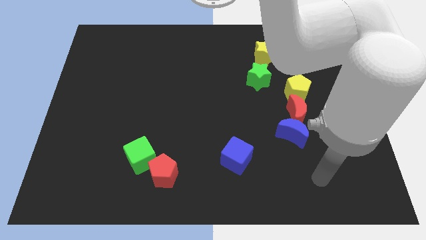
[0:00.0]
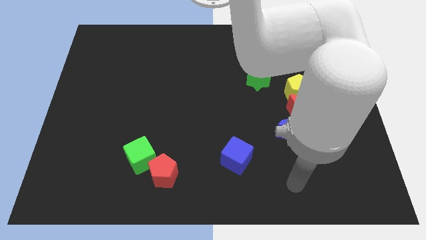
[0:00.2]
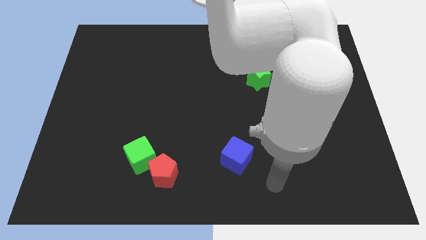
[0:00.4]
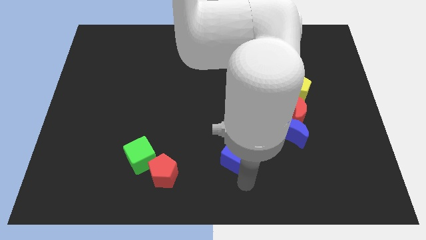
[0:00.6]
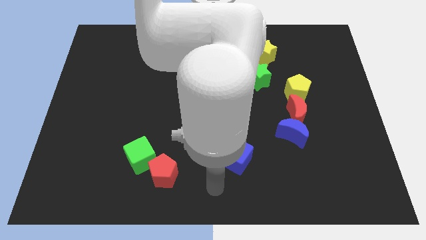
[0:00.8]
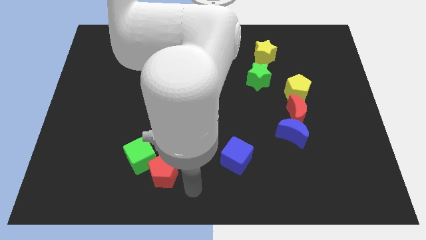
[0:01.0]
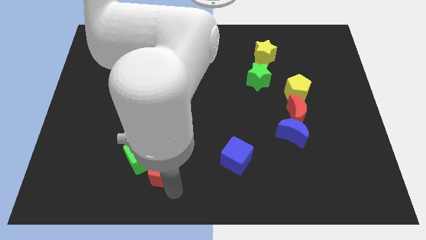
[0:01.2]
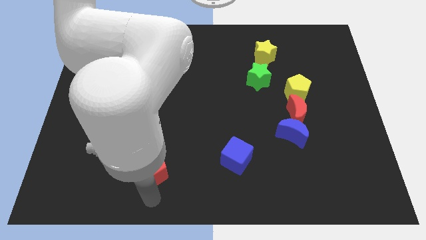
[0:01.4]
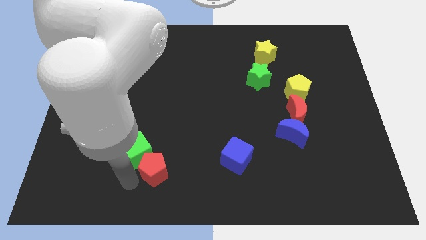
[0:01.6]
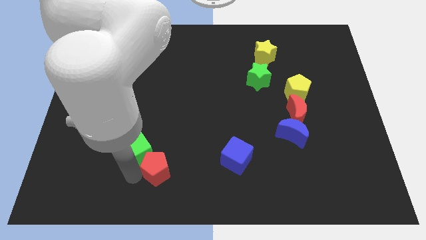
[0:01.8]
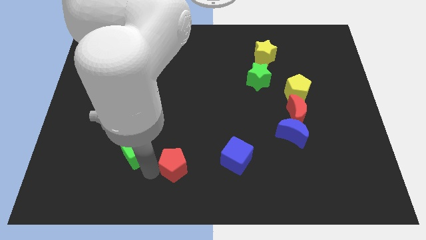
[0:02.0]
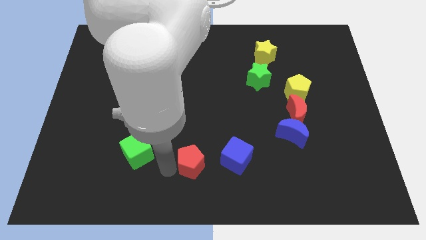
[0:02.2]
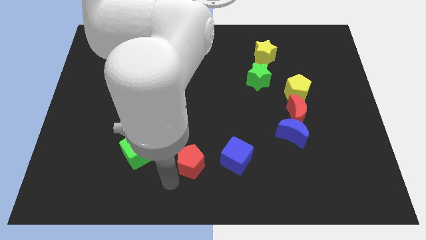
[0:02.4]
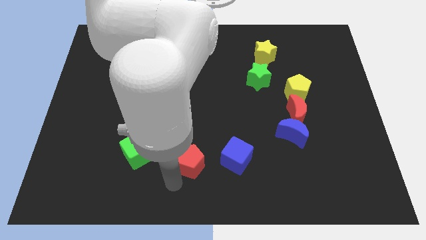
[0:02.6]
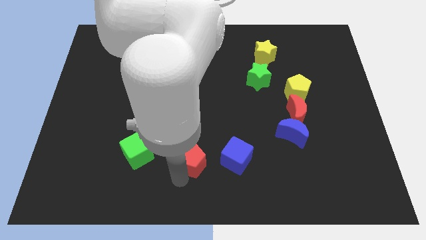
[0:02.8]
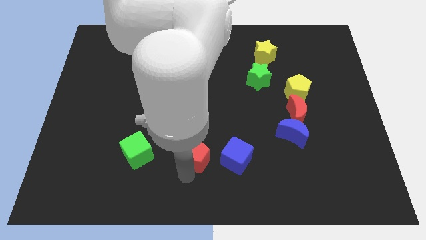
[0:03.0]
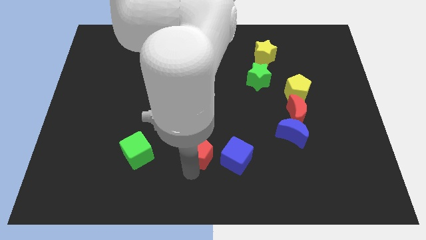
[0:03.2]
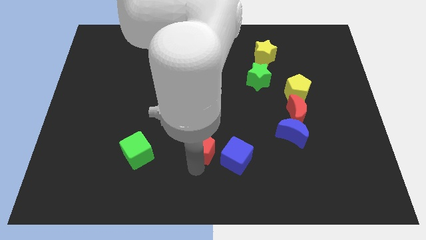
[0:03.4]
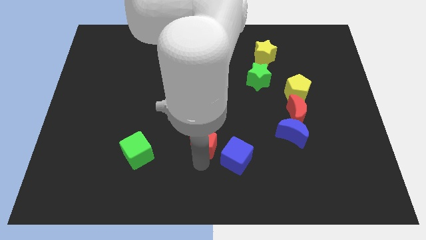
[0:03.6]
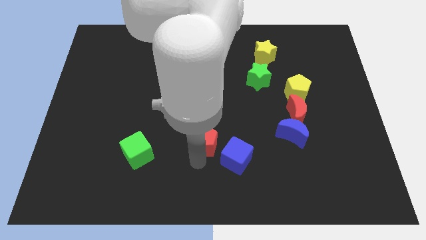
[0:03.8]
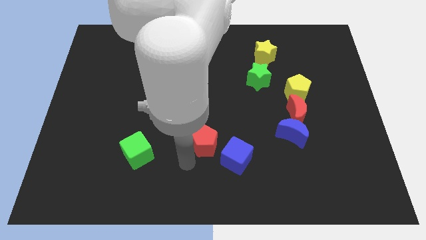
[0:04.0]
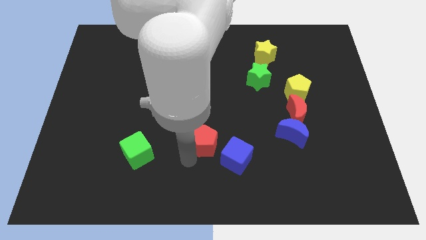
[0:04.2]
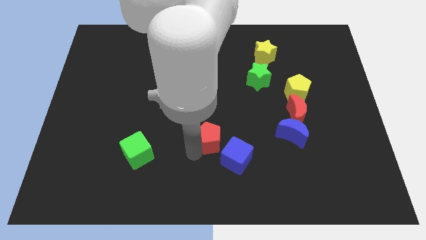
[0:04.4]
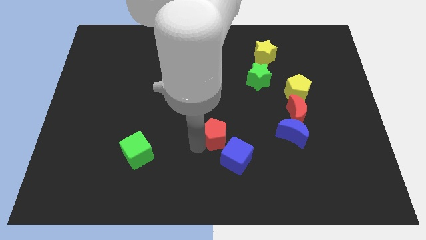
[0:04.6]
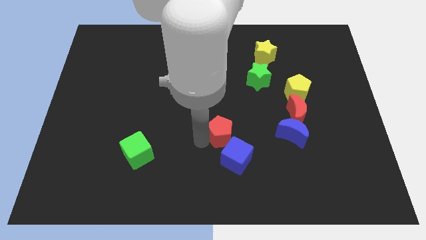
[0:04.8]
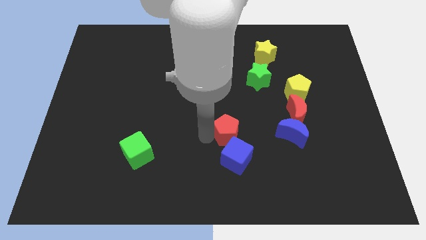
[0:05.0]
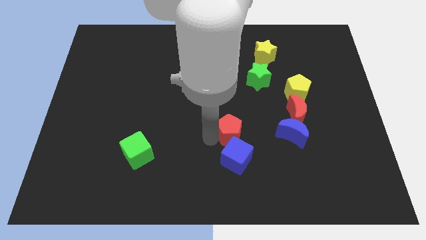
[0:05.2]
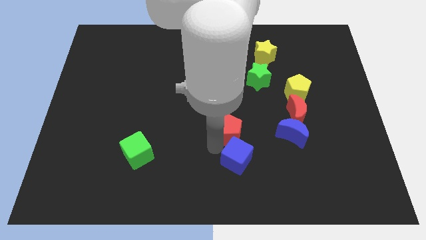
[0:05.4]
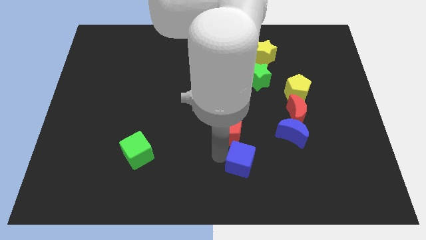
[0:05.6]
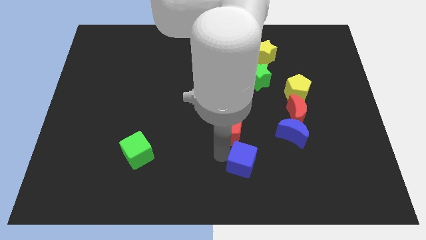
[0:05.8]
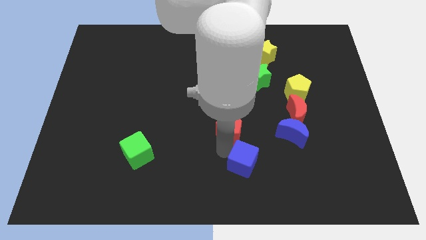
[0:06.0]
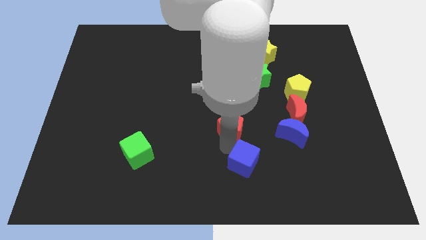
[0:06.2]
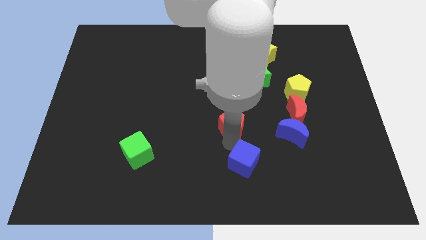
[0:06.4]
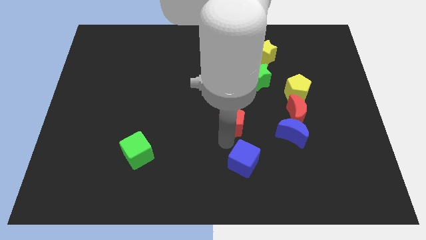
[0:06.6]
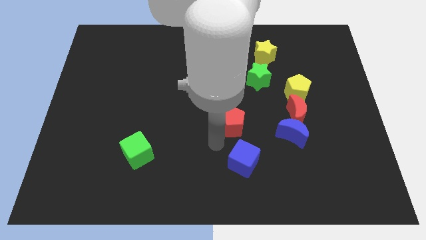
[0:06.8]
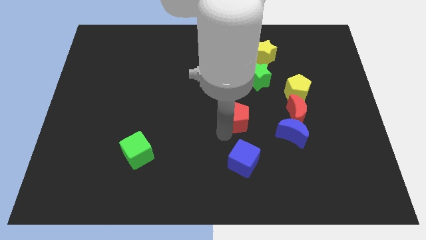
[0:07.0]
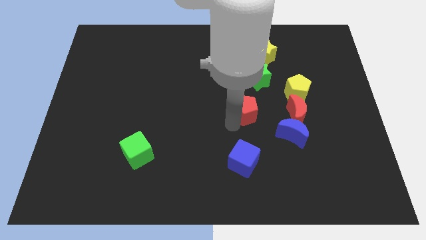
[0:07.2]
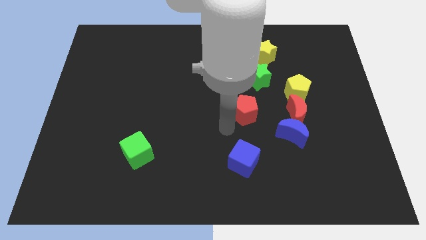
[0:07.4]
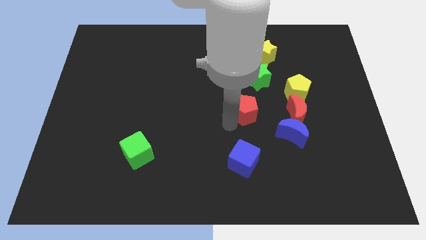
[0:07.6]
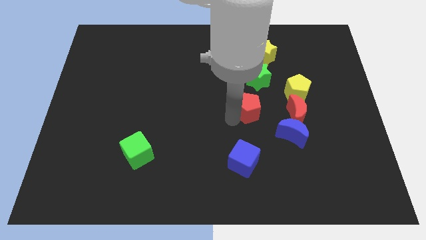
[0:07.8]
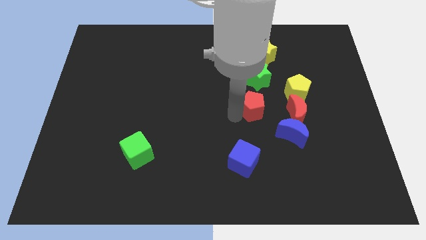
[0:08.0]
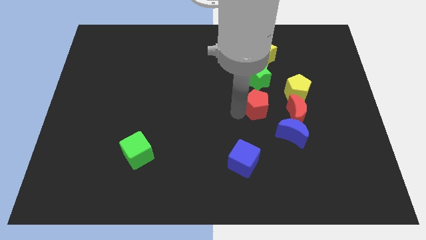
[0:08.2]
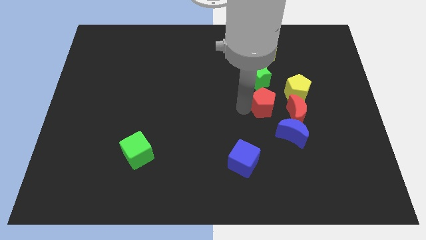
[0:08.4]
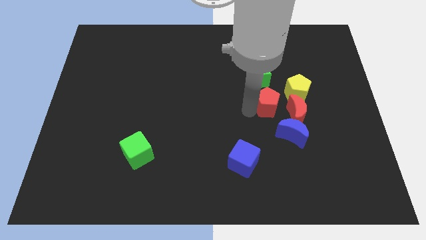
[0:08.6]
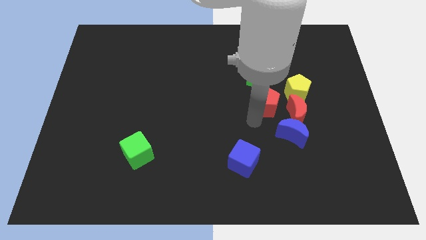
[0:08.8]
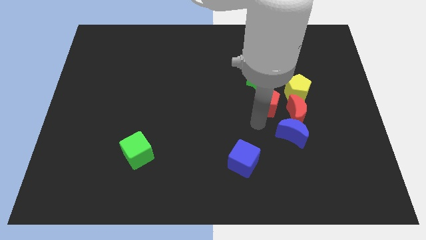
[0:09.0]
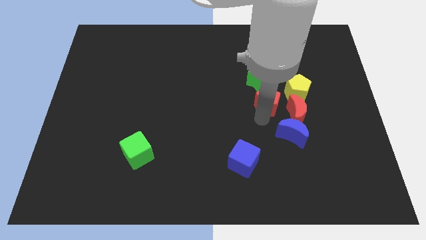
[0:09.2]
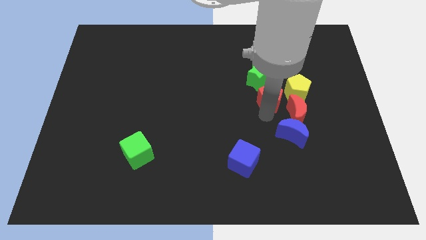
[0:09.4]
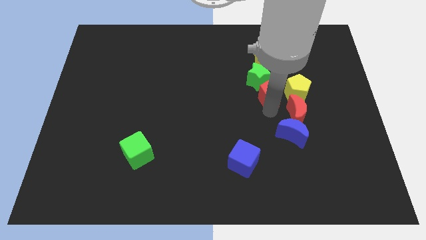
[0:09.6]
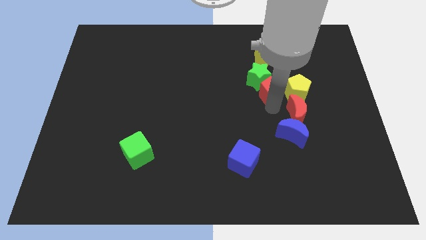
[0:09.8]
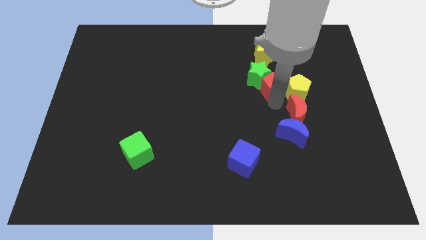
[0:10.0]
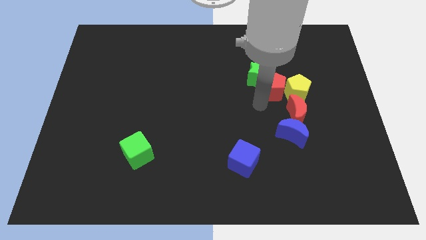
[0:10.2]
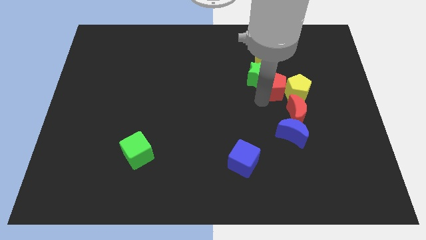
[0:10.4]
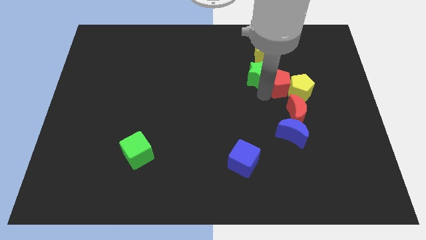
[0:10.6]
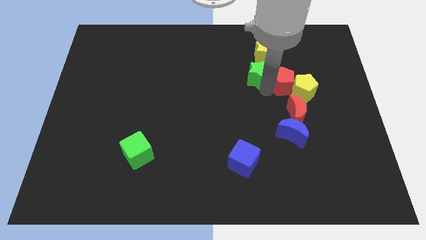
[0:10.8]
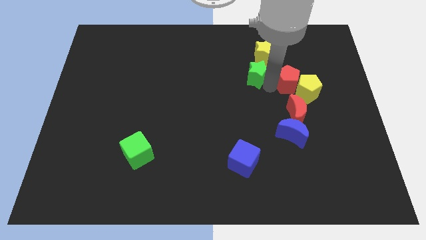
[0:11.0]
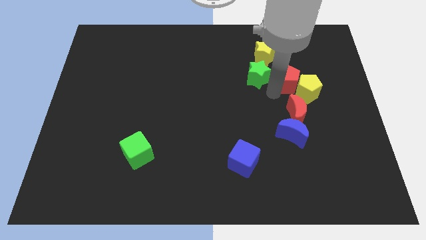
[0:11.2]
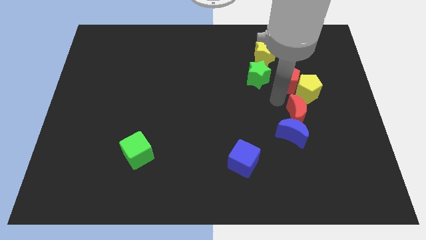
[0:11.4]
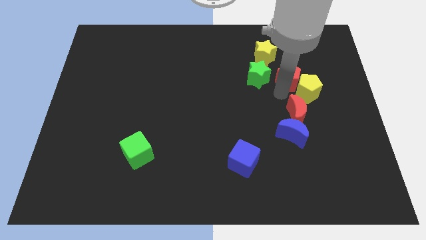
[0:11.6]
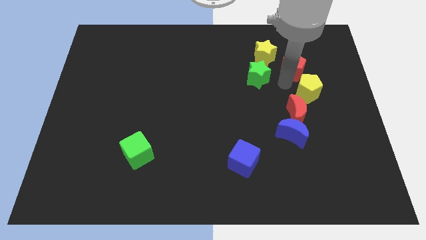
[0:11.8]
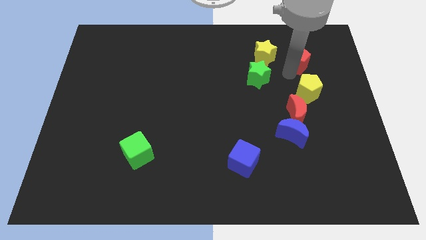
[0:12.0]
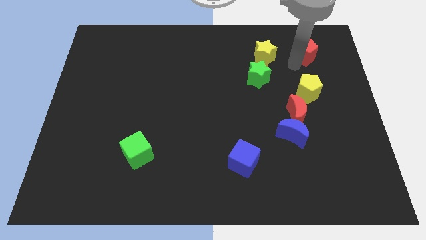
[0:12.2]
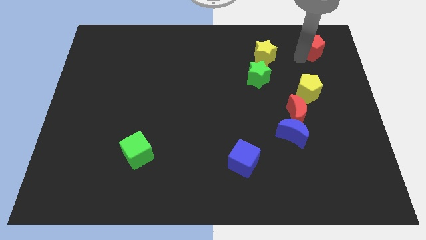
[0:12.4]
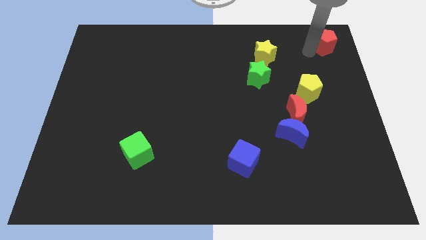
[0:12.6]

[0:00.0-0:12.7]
move the red pentagon to the upper right corner
